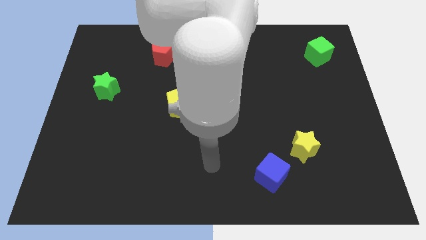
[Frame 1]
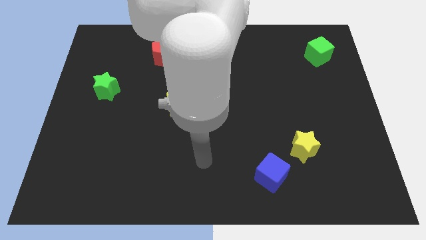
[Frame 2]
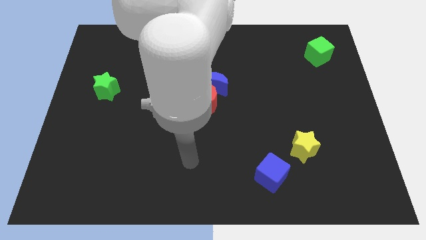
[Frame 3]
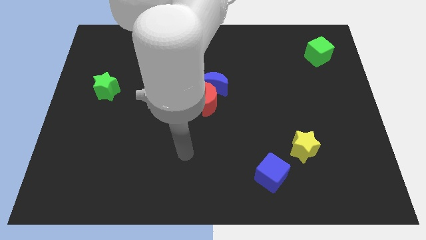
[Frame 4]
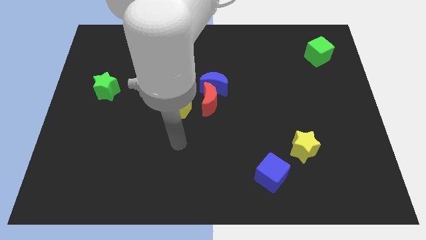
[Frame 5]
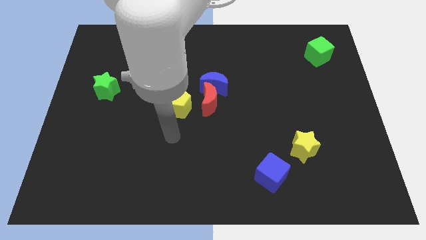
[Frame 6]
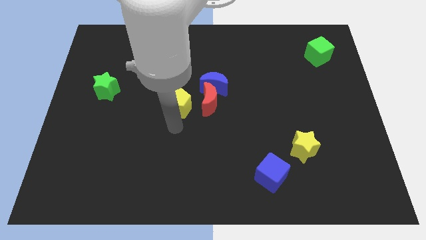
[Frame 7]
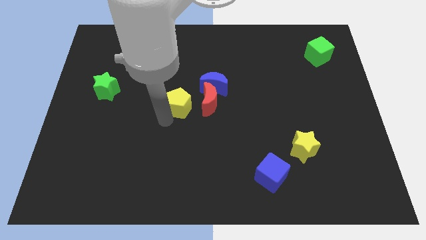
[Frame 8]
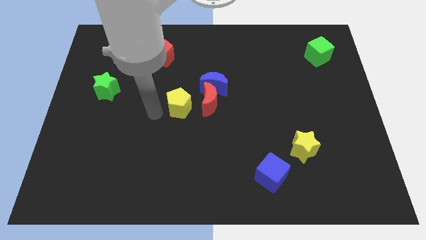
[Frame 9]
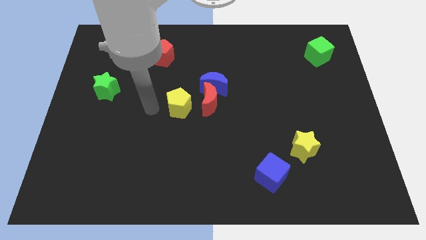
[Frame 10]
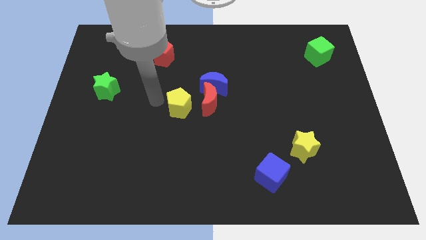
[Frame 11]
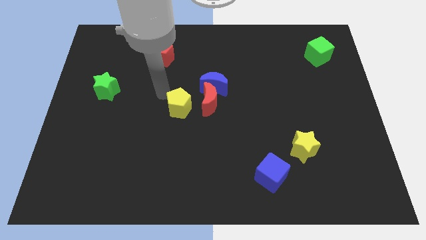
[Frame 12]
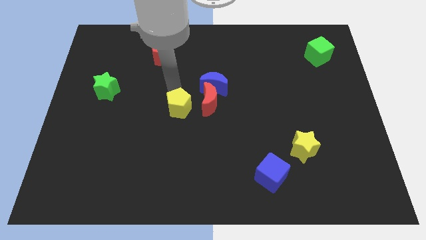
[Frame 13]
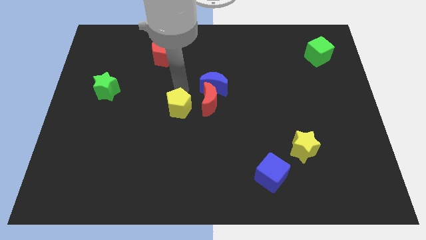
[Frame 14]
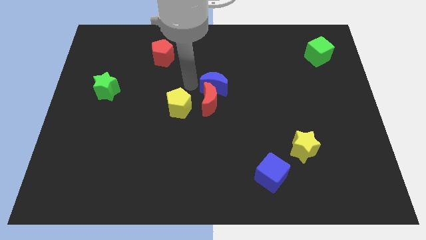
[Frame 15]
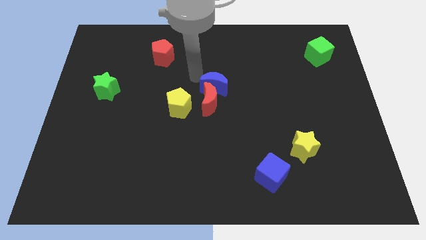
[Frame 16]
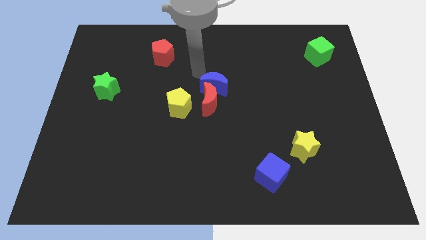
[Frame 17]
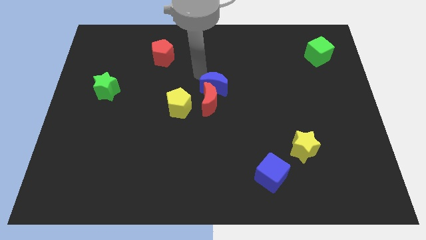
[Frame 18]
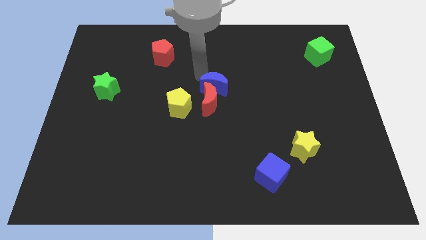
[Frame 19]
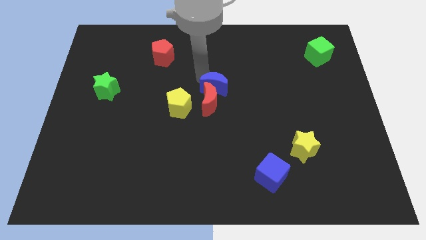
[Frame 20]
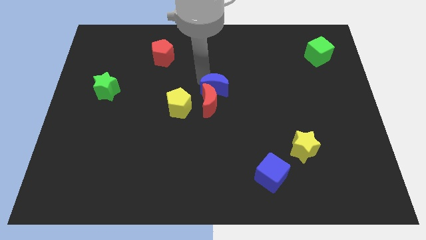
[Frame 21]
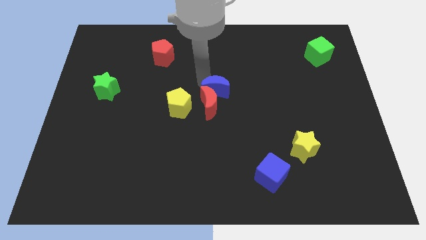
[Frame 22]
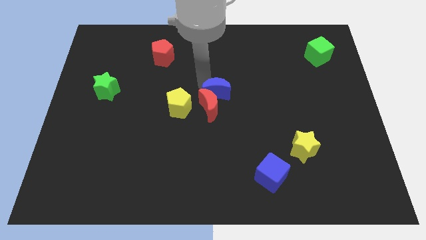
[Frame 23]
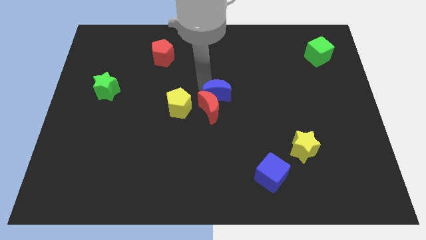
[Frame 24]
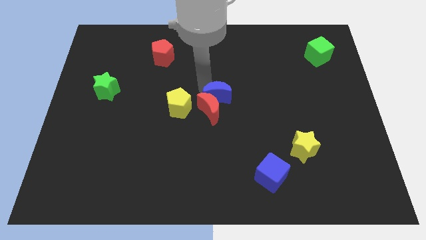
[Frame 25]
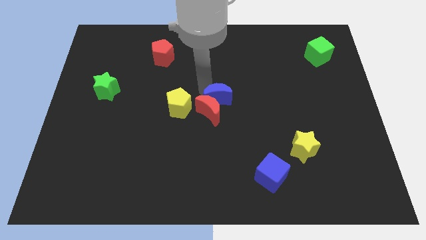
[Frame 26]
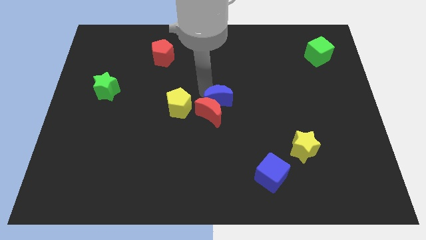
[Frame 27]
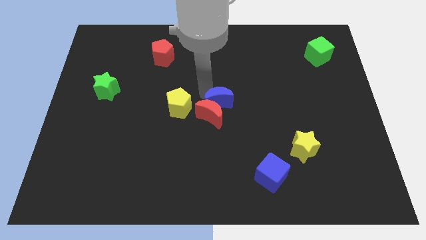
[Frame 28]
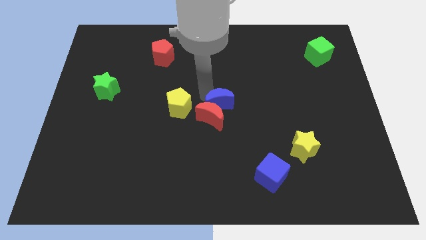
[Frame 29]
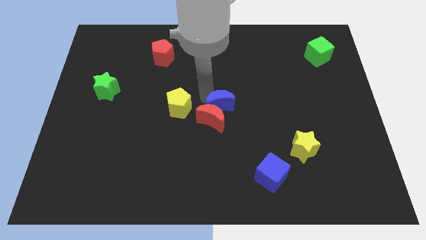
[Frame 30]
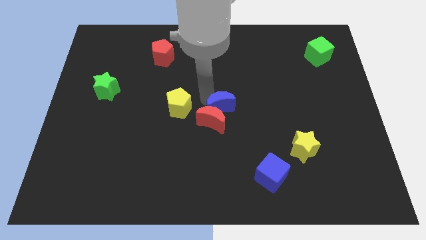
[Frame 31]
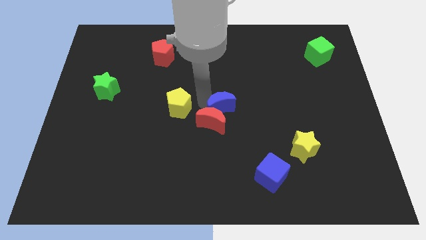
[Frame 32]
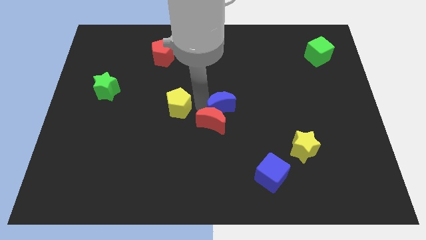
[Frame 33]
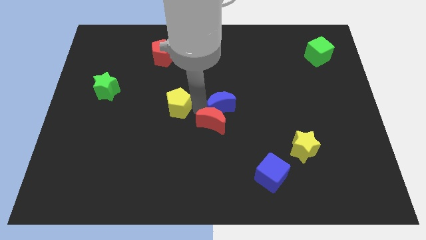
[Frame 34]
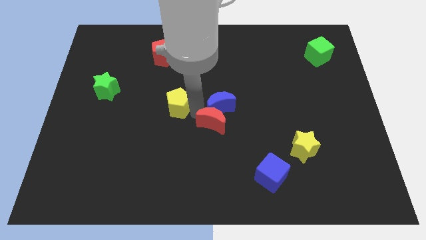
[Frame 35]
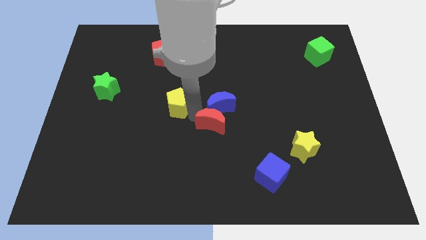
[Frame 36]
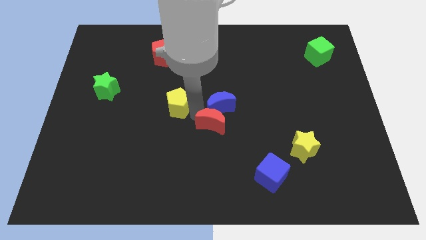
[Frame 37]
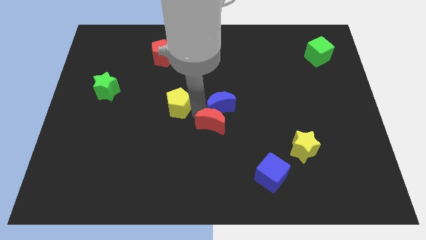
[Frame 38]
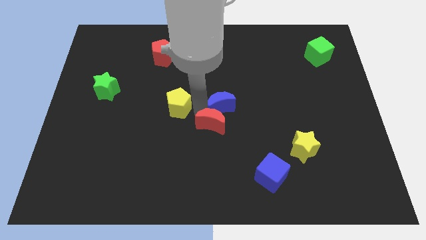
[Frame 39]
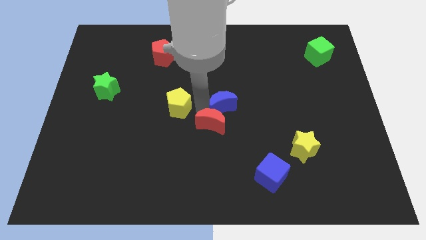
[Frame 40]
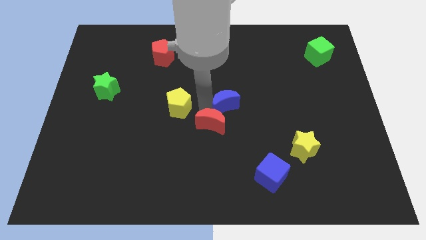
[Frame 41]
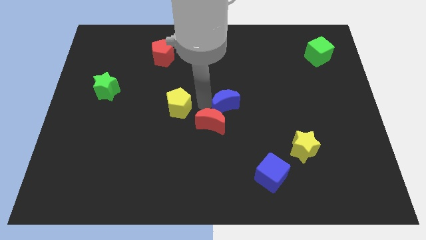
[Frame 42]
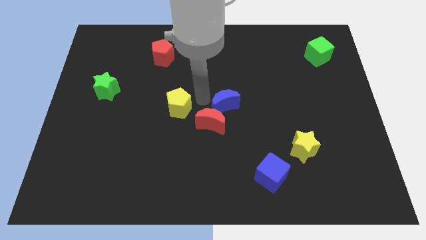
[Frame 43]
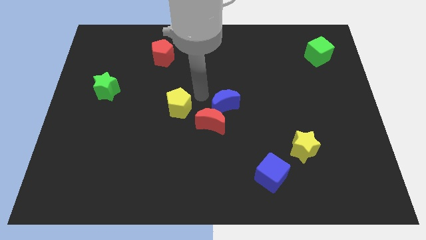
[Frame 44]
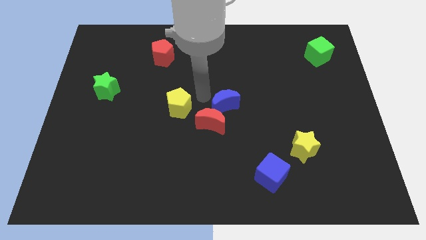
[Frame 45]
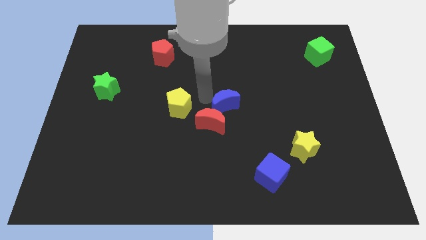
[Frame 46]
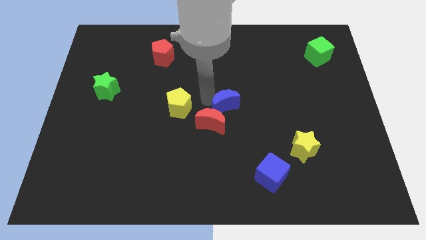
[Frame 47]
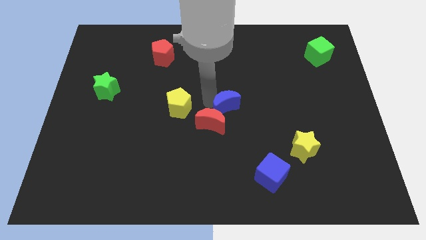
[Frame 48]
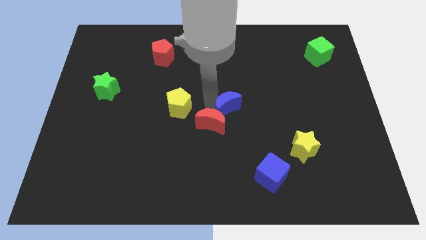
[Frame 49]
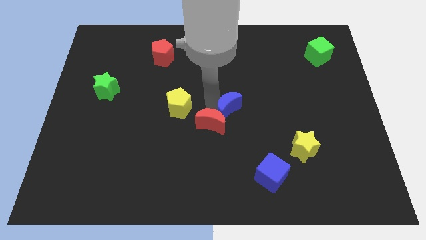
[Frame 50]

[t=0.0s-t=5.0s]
move the blue moon a little bit diagonally down and to the right

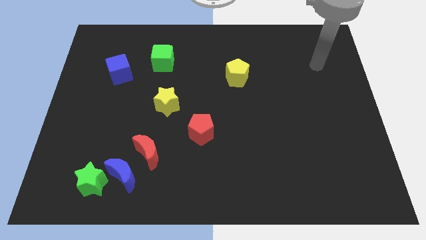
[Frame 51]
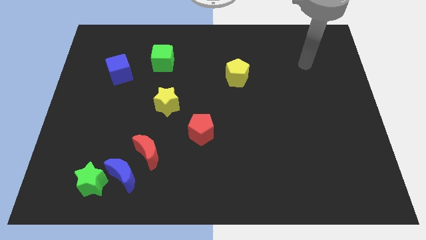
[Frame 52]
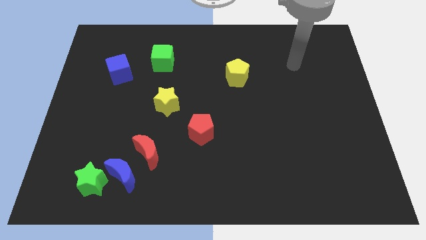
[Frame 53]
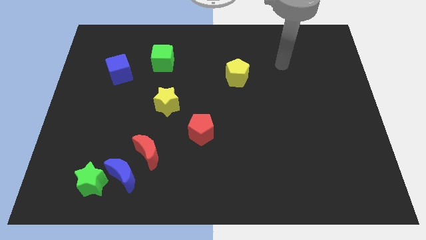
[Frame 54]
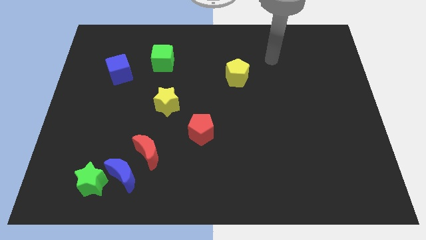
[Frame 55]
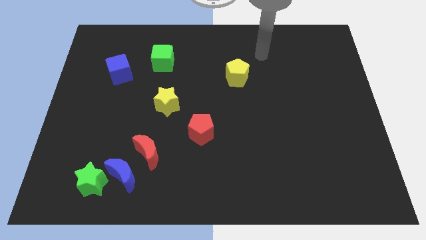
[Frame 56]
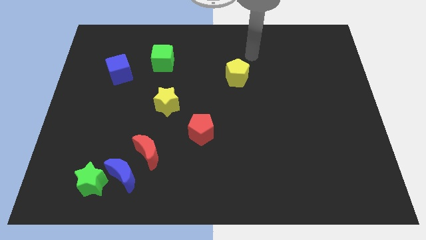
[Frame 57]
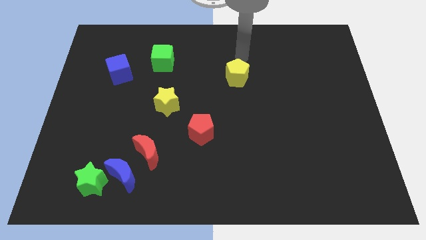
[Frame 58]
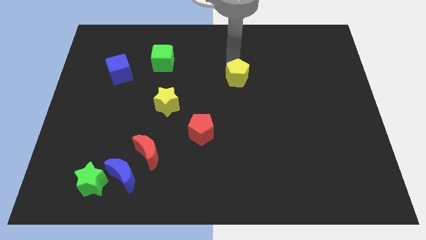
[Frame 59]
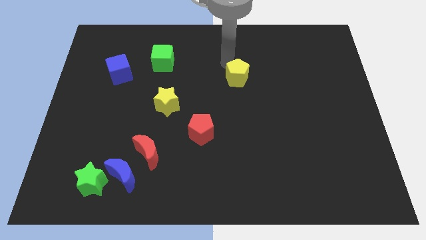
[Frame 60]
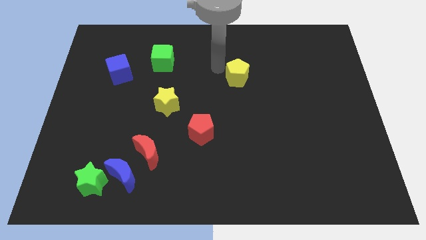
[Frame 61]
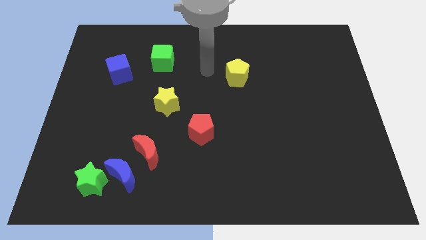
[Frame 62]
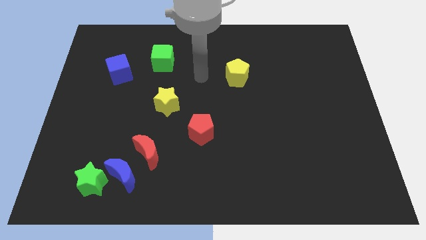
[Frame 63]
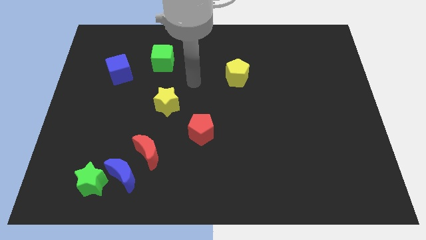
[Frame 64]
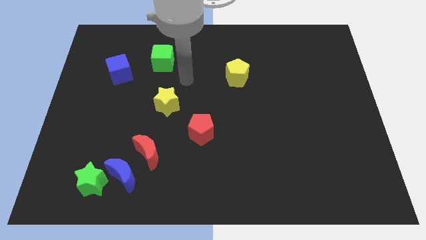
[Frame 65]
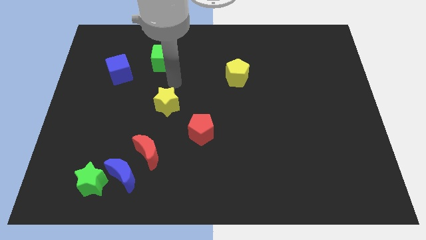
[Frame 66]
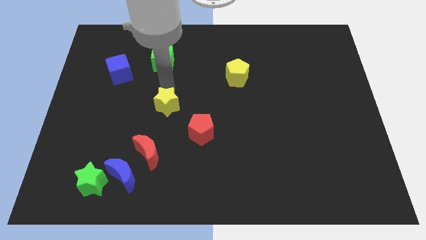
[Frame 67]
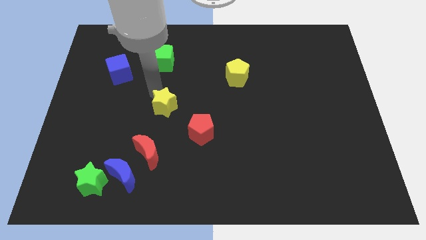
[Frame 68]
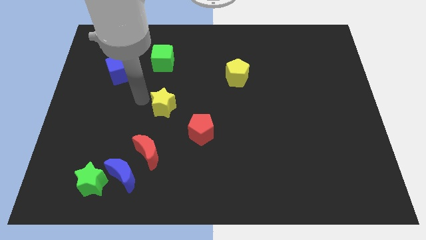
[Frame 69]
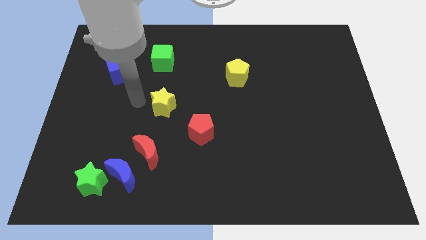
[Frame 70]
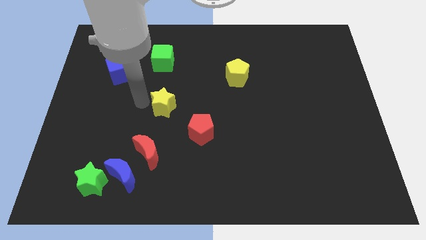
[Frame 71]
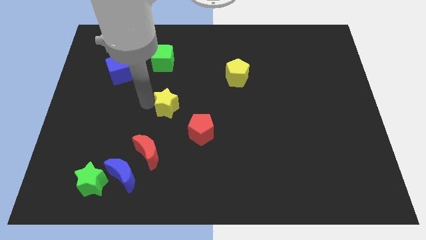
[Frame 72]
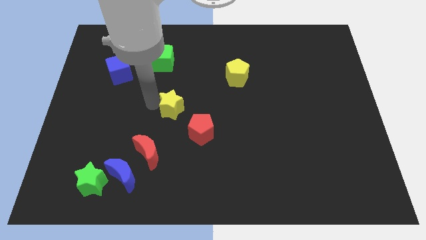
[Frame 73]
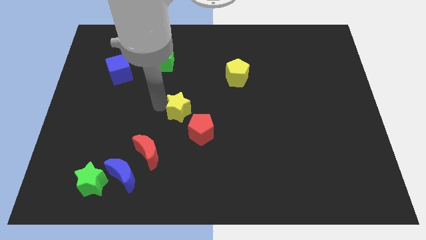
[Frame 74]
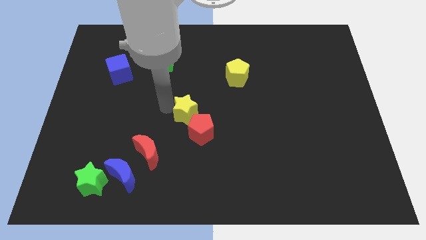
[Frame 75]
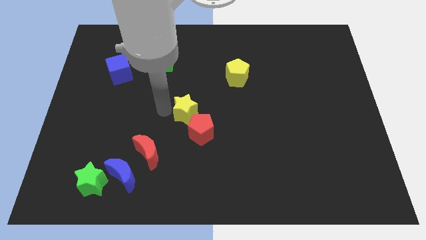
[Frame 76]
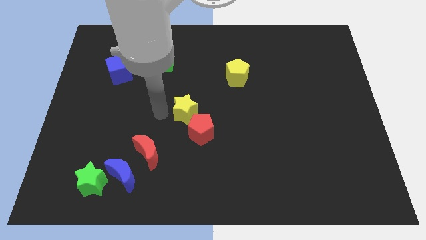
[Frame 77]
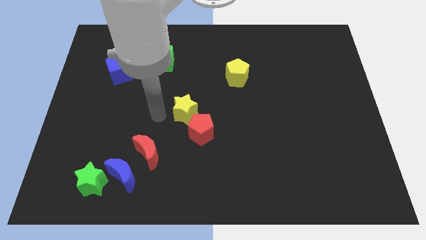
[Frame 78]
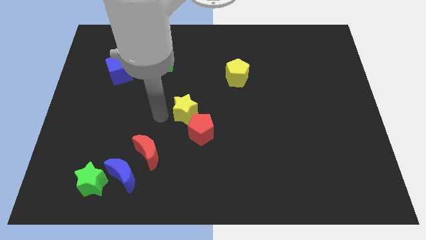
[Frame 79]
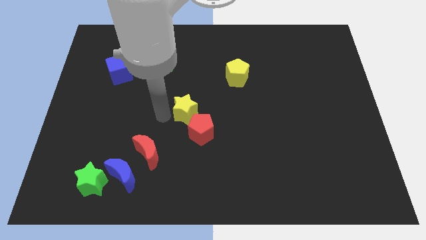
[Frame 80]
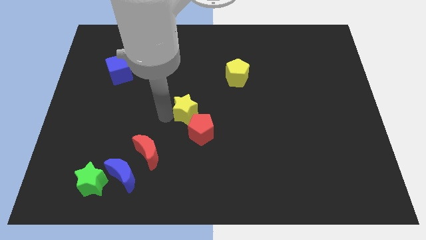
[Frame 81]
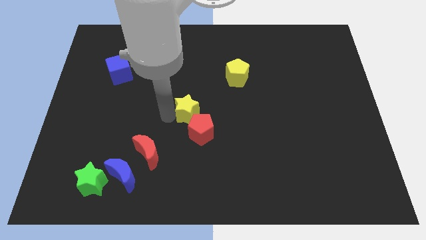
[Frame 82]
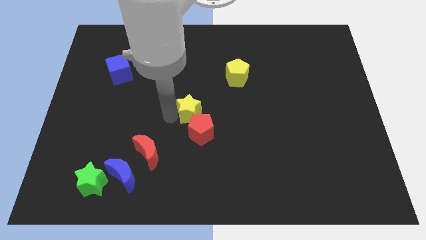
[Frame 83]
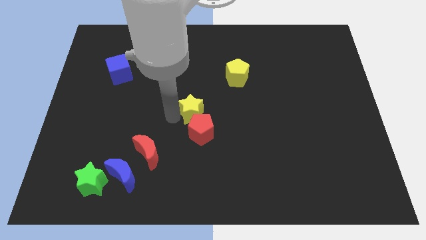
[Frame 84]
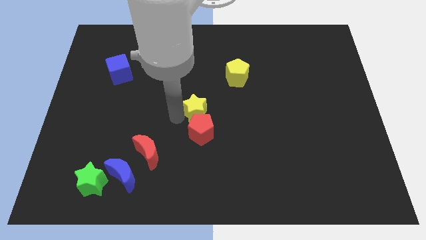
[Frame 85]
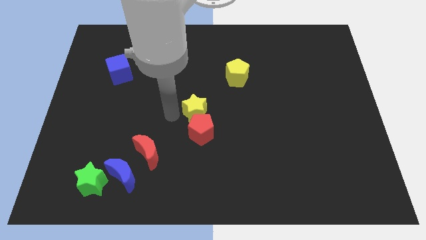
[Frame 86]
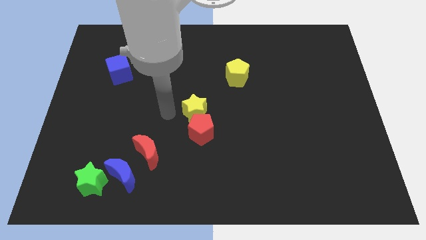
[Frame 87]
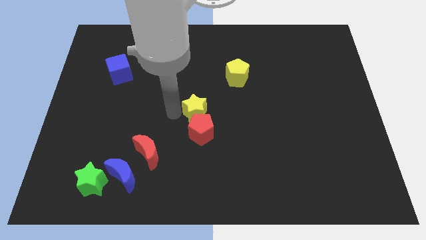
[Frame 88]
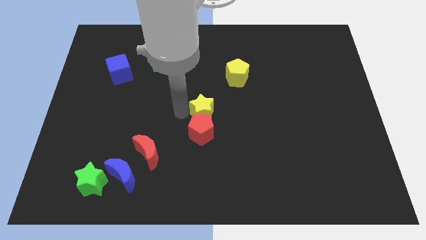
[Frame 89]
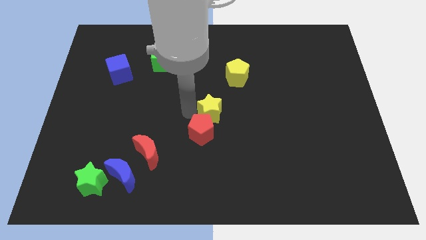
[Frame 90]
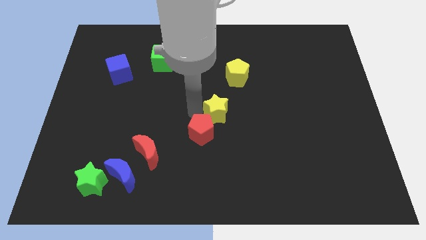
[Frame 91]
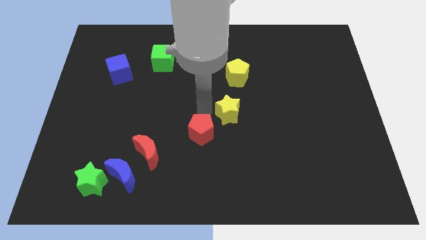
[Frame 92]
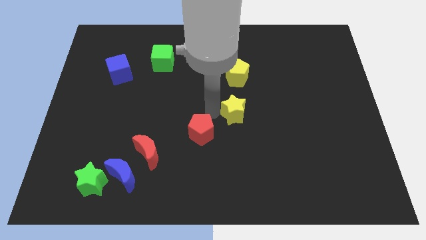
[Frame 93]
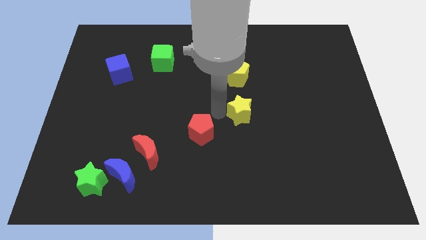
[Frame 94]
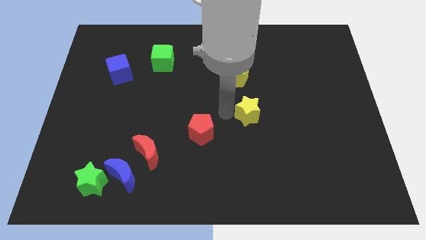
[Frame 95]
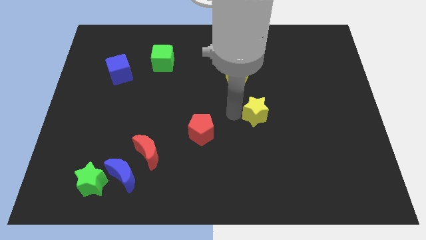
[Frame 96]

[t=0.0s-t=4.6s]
push the yellow star right
